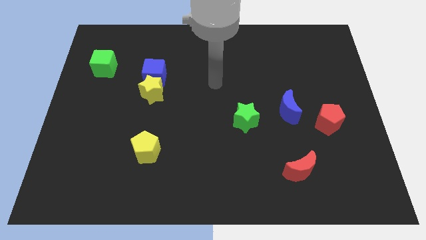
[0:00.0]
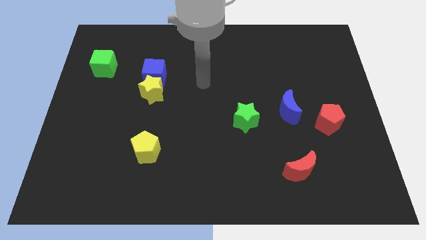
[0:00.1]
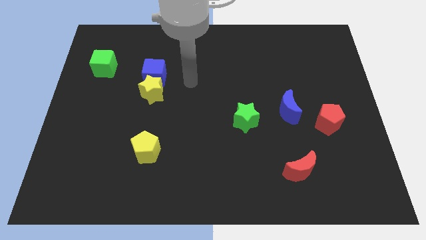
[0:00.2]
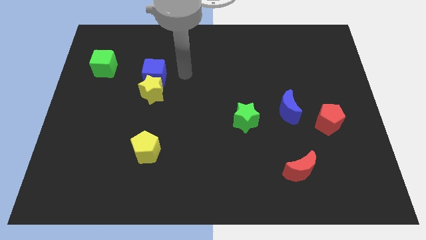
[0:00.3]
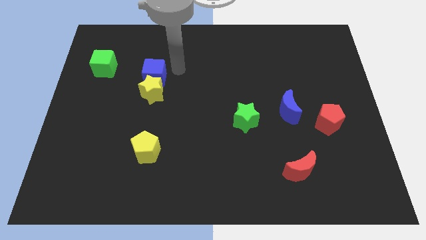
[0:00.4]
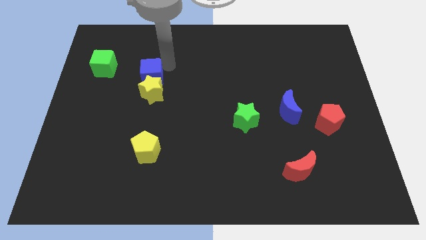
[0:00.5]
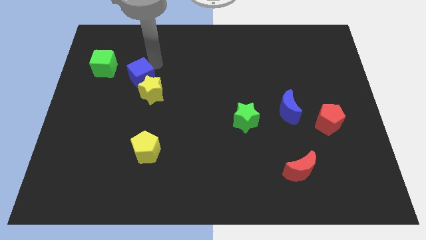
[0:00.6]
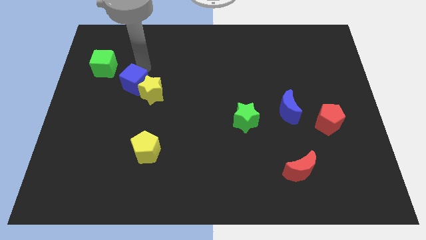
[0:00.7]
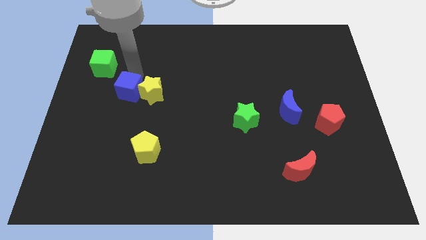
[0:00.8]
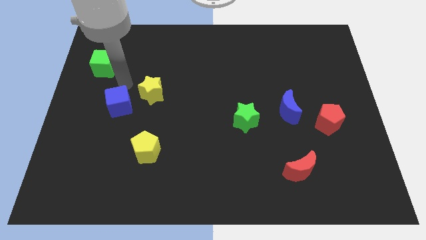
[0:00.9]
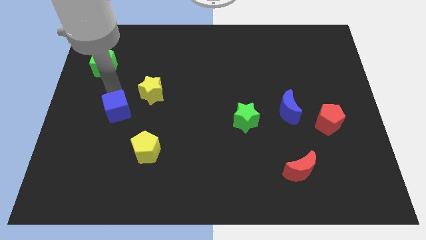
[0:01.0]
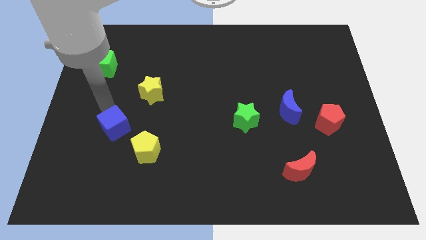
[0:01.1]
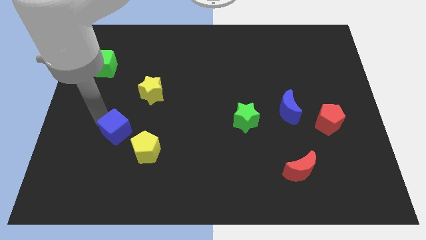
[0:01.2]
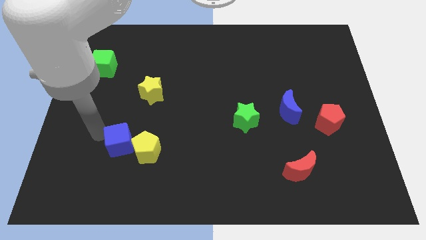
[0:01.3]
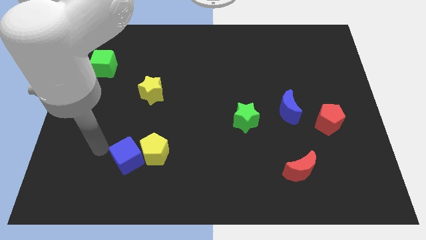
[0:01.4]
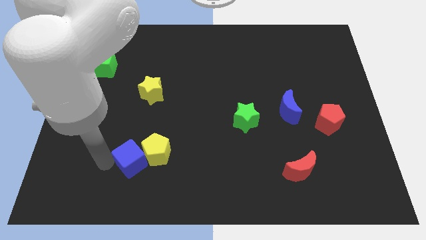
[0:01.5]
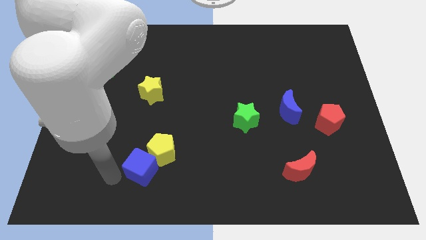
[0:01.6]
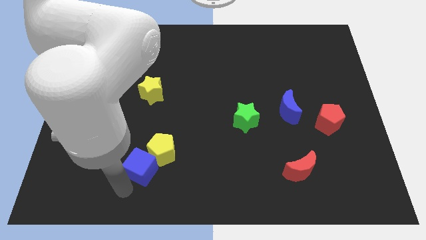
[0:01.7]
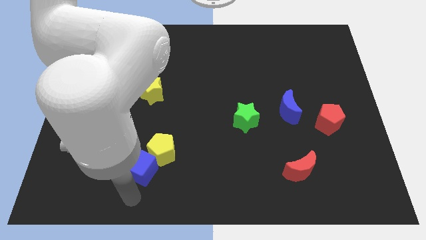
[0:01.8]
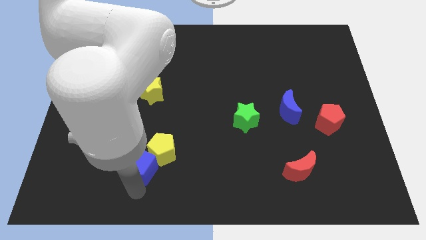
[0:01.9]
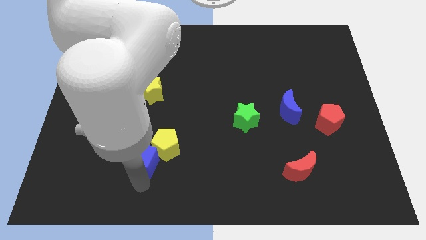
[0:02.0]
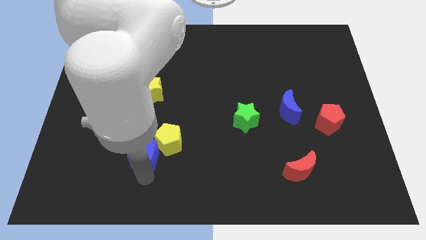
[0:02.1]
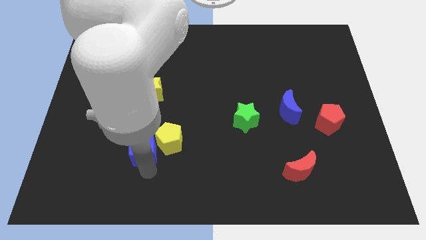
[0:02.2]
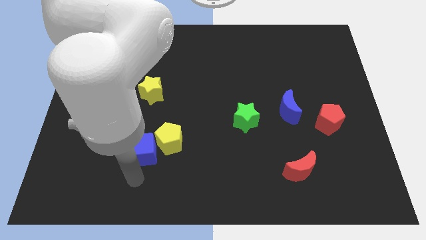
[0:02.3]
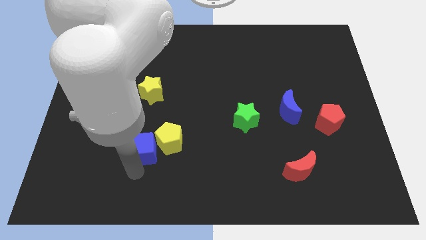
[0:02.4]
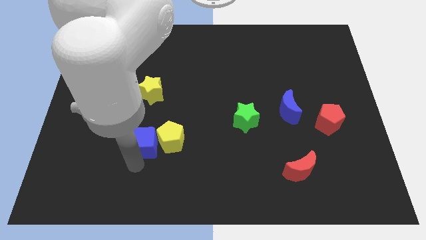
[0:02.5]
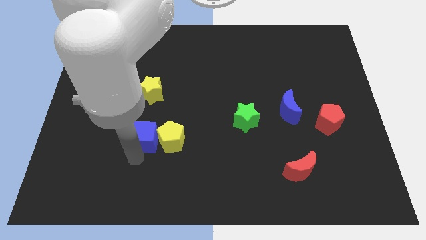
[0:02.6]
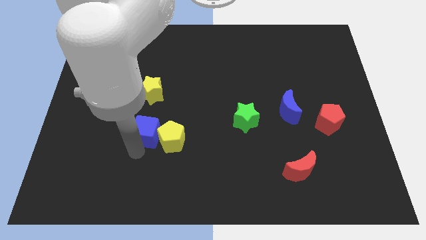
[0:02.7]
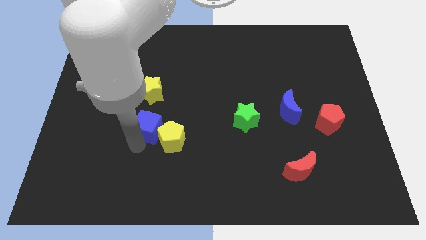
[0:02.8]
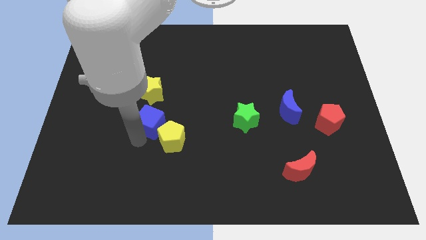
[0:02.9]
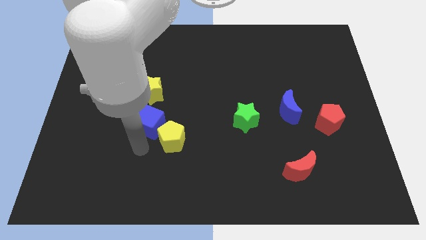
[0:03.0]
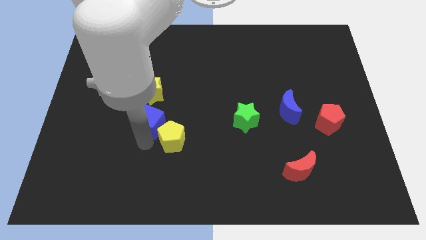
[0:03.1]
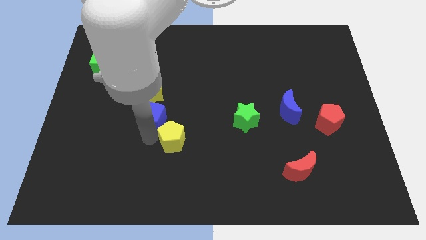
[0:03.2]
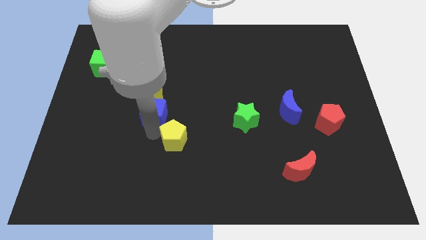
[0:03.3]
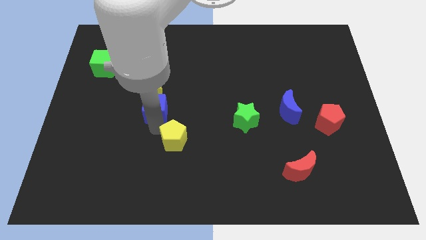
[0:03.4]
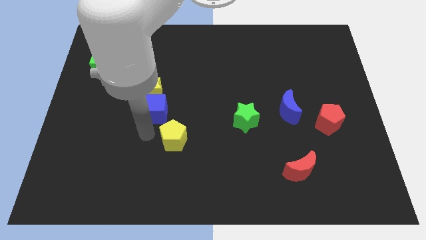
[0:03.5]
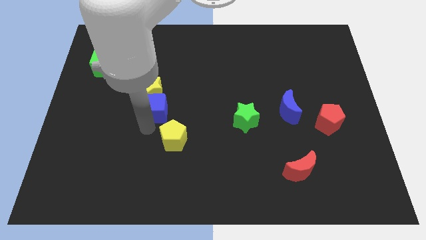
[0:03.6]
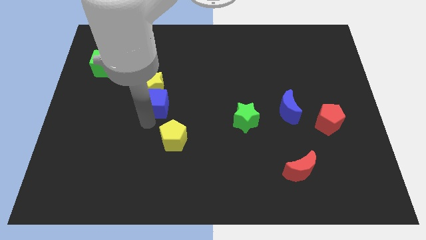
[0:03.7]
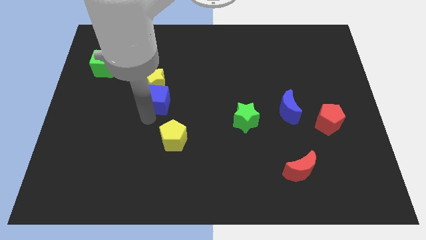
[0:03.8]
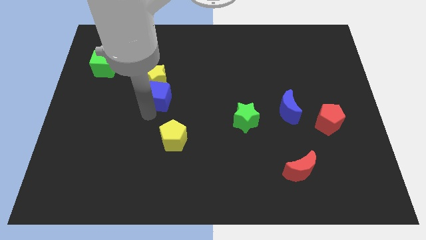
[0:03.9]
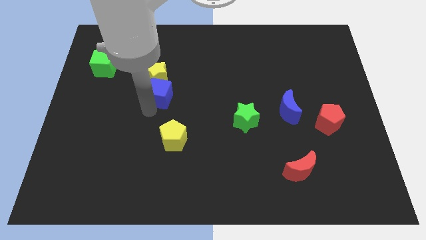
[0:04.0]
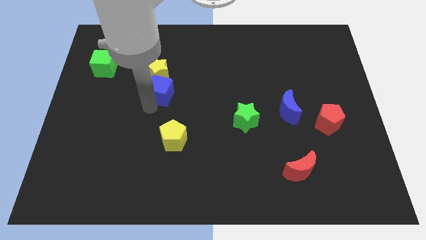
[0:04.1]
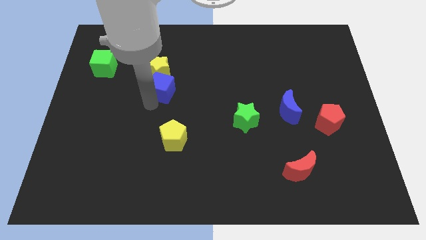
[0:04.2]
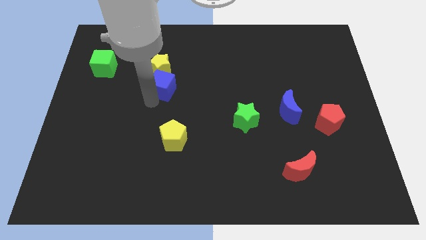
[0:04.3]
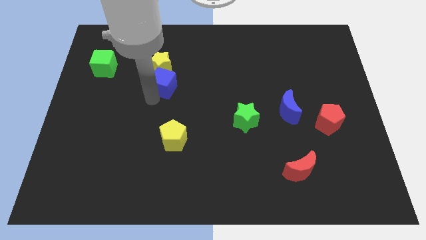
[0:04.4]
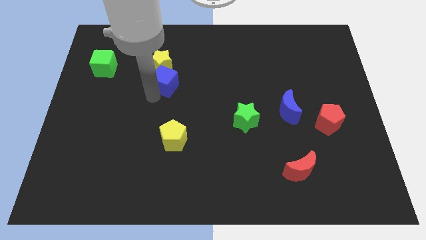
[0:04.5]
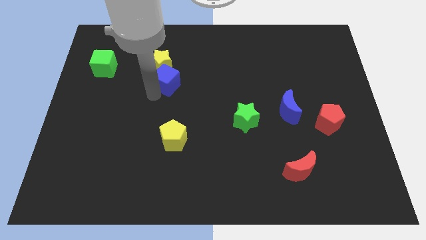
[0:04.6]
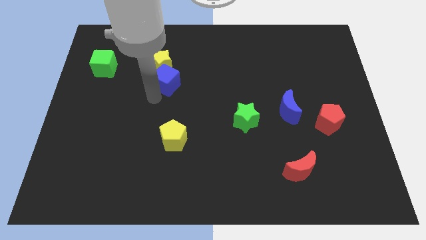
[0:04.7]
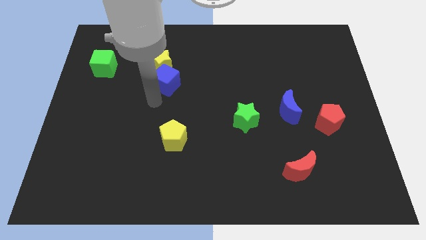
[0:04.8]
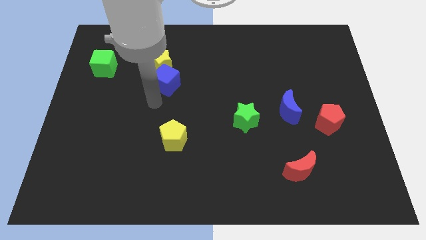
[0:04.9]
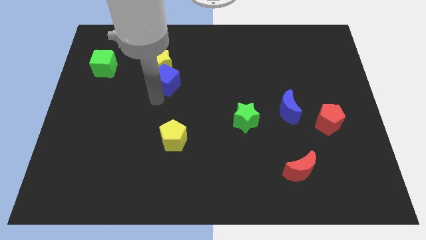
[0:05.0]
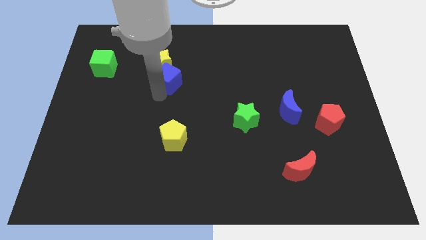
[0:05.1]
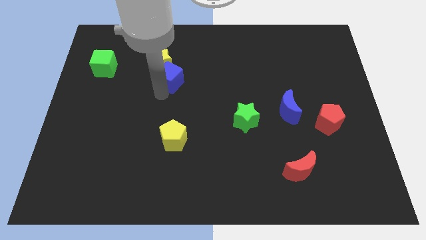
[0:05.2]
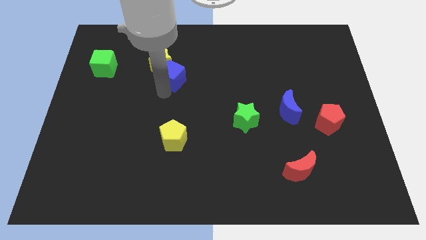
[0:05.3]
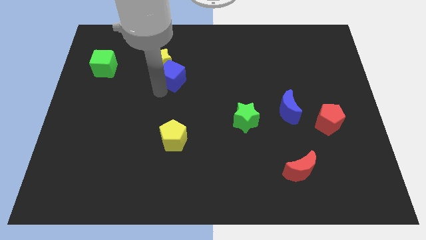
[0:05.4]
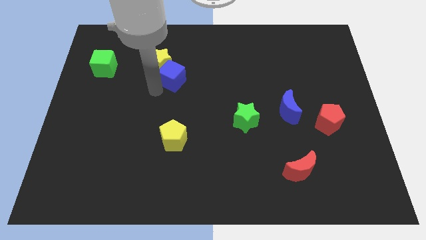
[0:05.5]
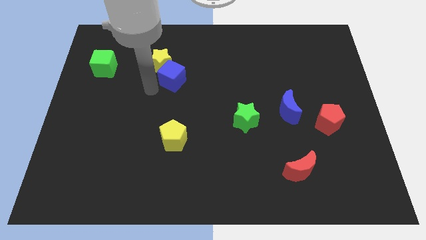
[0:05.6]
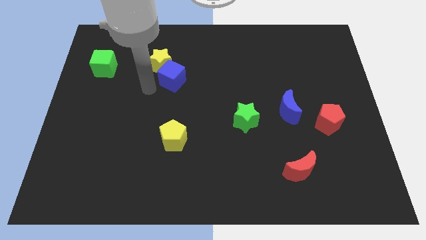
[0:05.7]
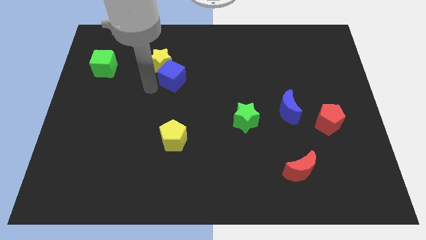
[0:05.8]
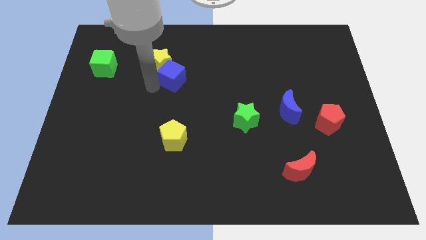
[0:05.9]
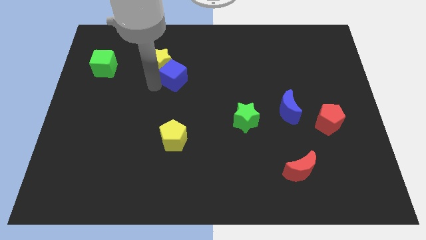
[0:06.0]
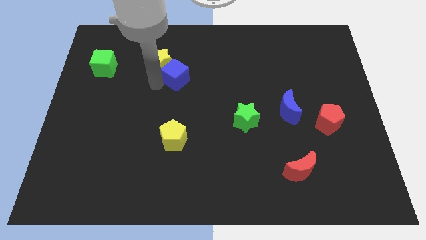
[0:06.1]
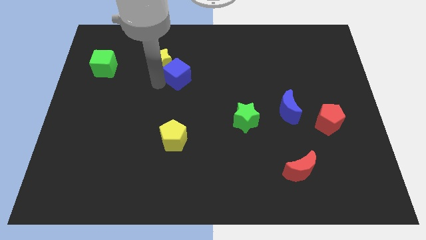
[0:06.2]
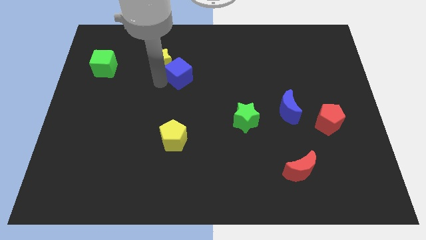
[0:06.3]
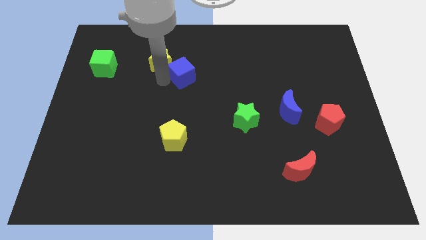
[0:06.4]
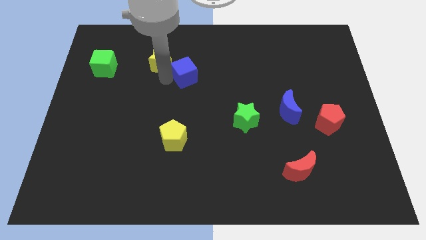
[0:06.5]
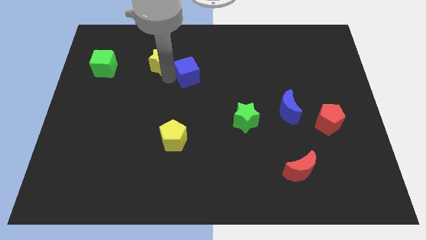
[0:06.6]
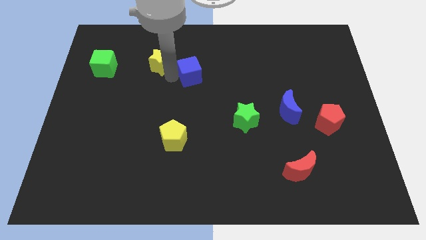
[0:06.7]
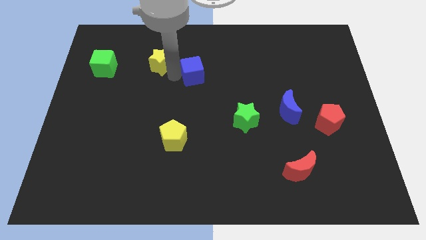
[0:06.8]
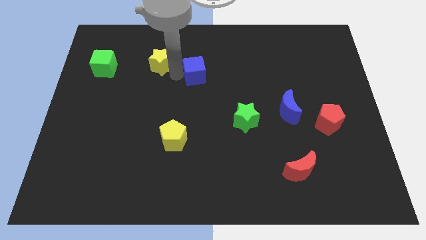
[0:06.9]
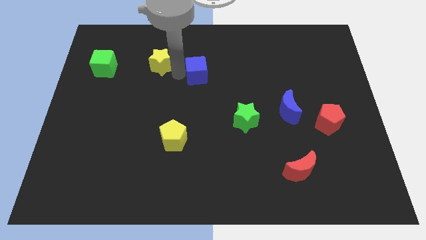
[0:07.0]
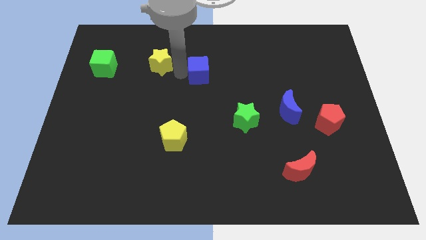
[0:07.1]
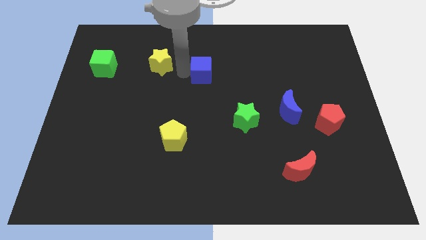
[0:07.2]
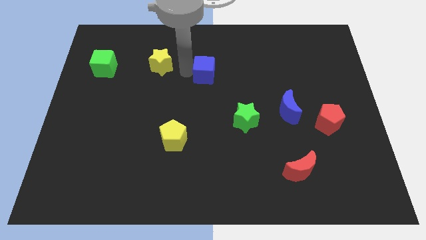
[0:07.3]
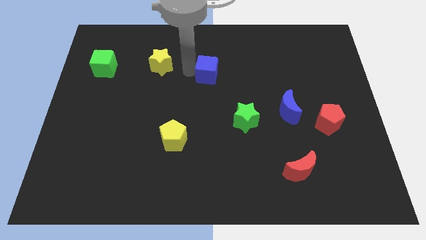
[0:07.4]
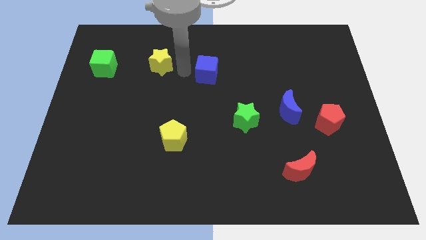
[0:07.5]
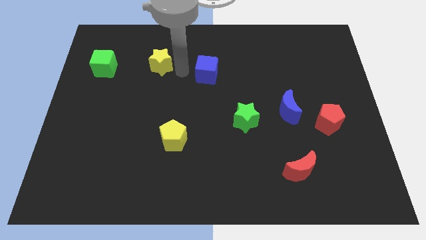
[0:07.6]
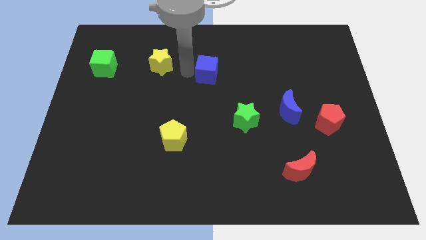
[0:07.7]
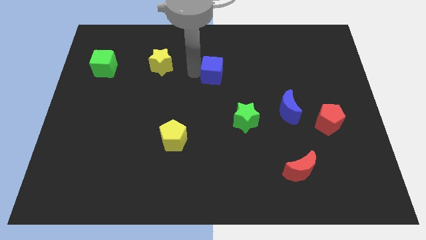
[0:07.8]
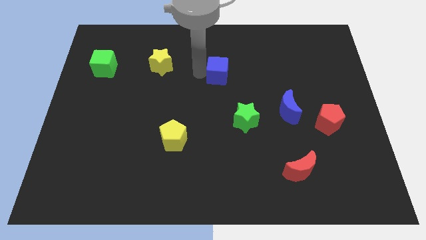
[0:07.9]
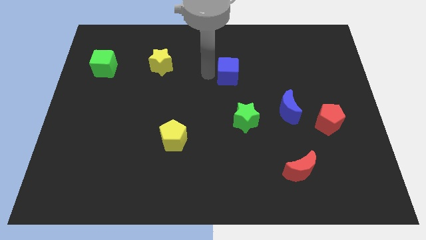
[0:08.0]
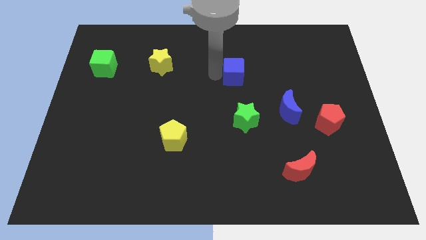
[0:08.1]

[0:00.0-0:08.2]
push the blue cube to the right
